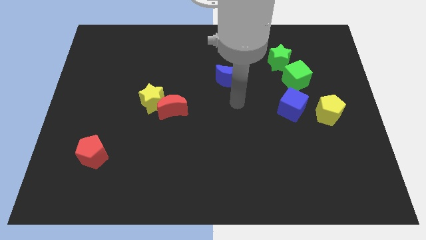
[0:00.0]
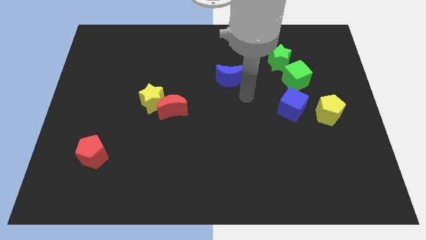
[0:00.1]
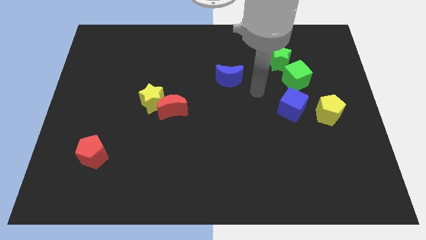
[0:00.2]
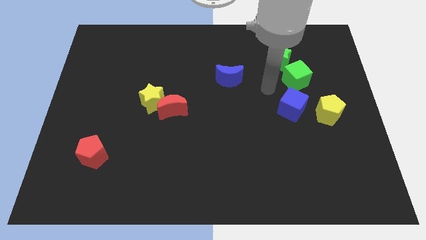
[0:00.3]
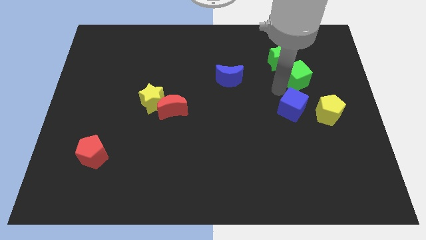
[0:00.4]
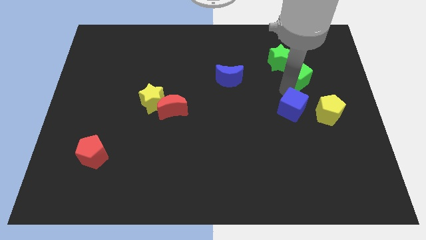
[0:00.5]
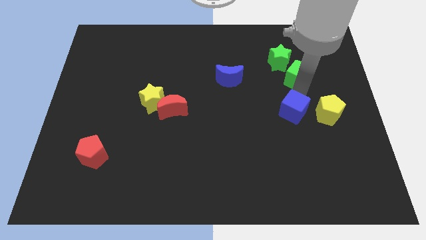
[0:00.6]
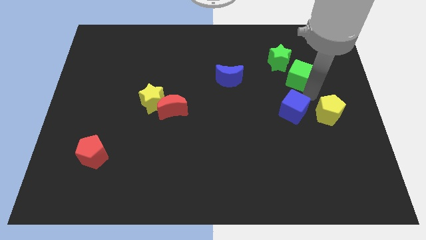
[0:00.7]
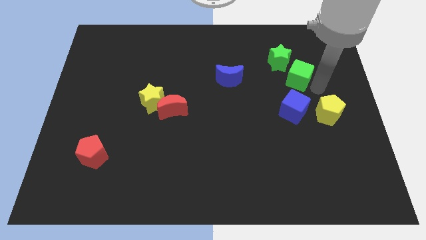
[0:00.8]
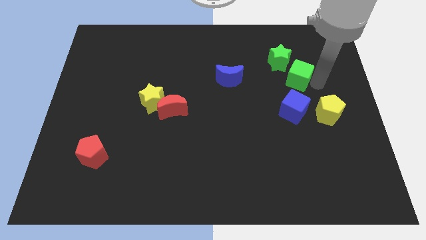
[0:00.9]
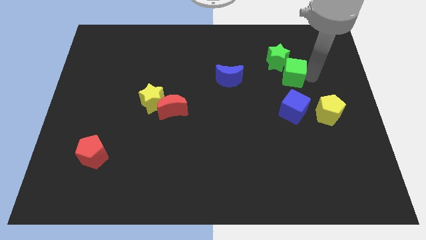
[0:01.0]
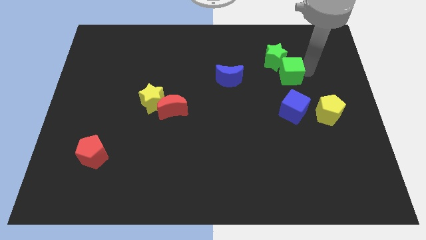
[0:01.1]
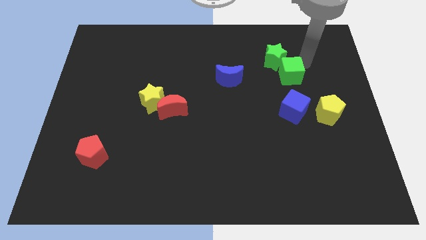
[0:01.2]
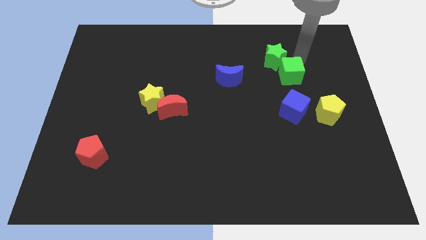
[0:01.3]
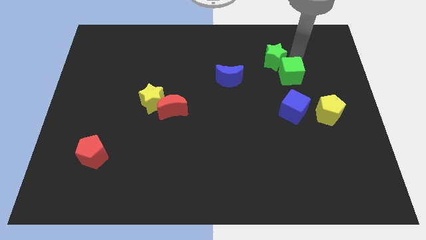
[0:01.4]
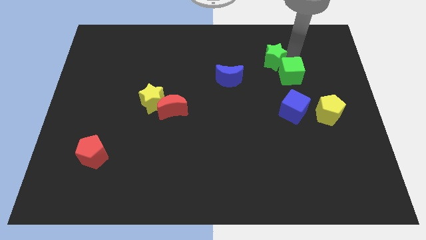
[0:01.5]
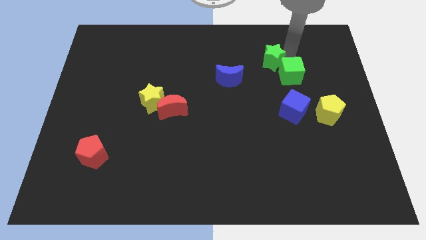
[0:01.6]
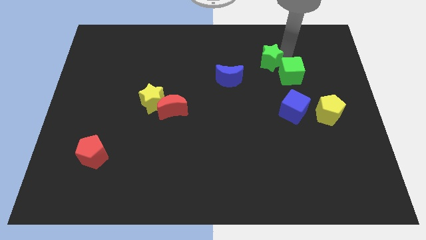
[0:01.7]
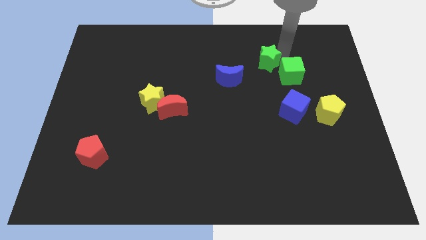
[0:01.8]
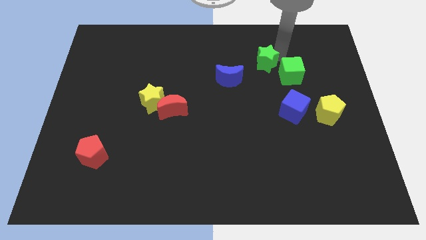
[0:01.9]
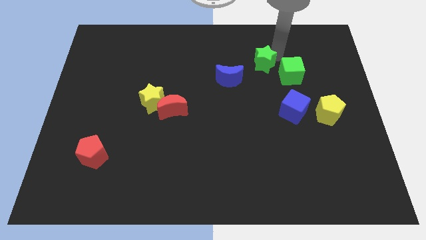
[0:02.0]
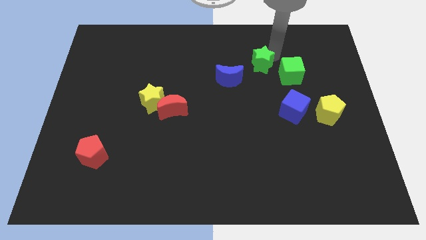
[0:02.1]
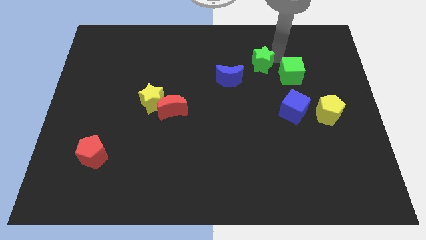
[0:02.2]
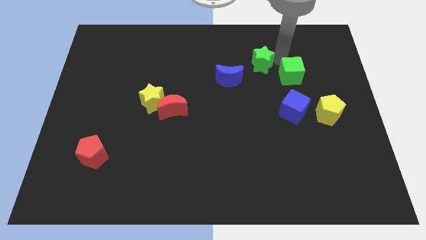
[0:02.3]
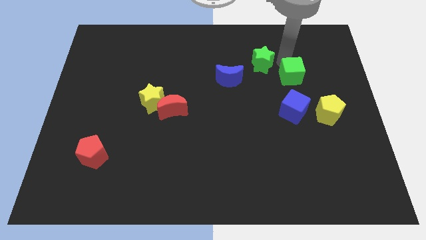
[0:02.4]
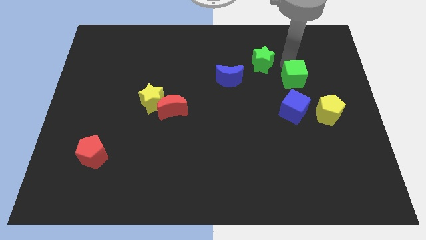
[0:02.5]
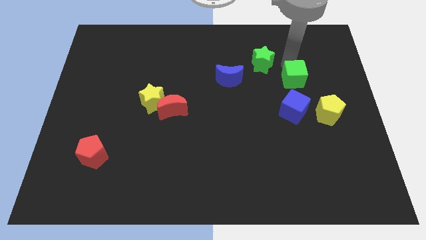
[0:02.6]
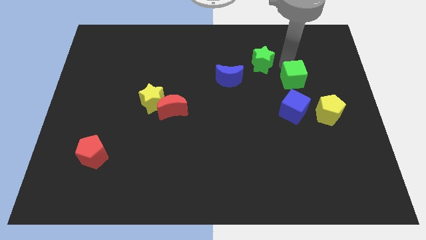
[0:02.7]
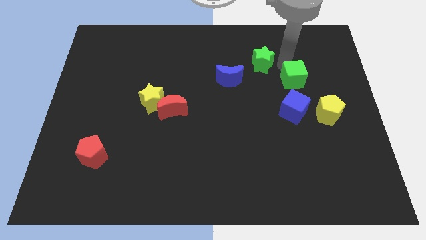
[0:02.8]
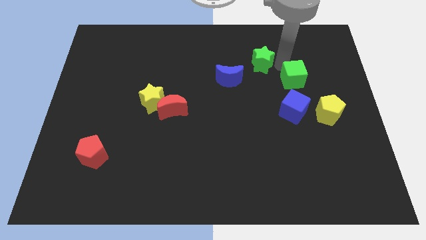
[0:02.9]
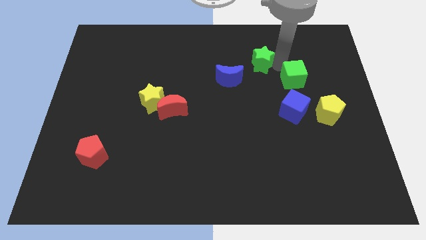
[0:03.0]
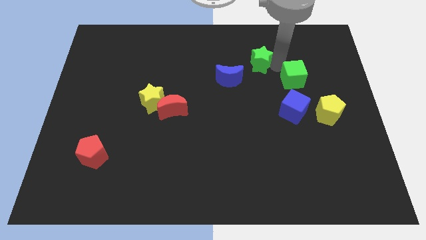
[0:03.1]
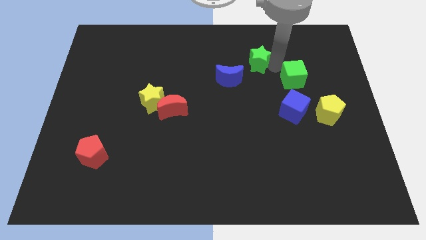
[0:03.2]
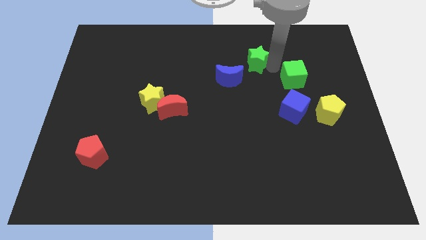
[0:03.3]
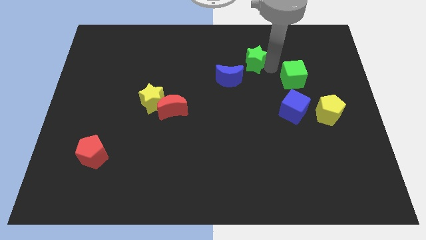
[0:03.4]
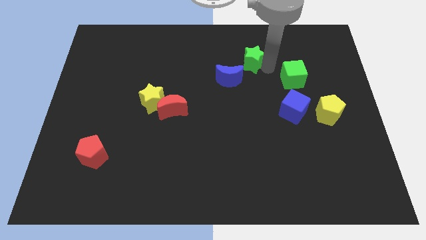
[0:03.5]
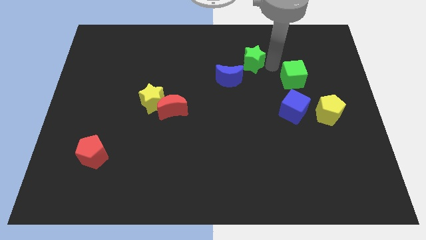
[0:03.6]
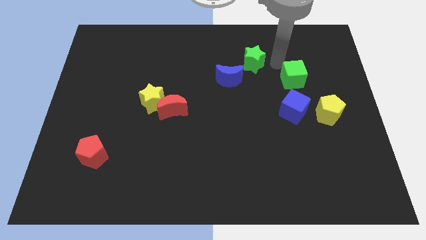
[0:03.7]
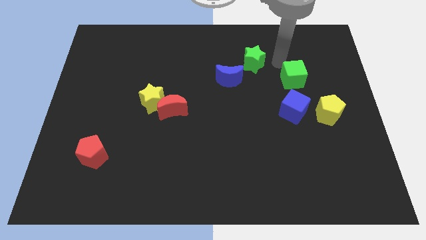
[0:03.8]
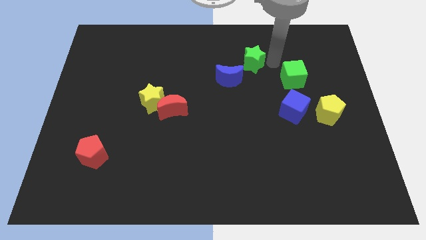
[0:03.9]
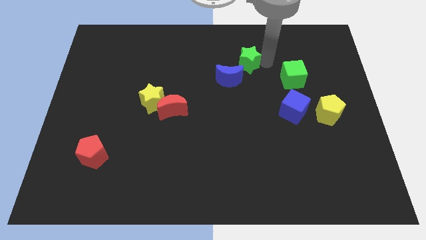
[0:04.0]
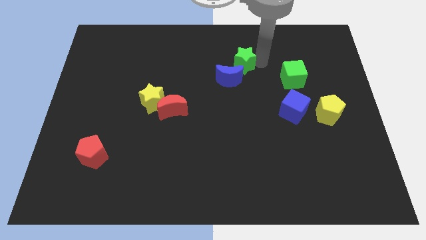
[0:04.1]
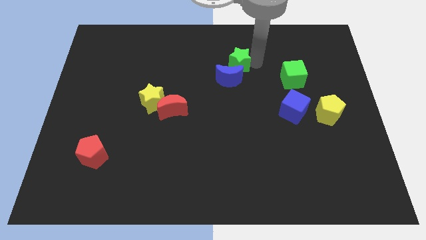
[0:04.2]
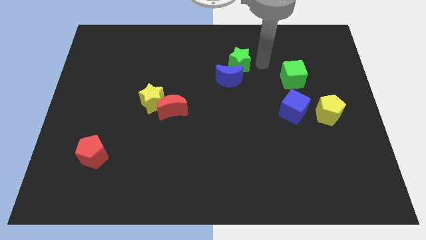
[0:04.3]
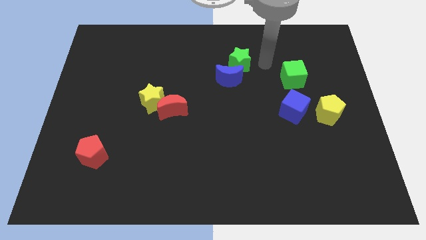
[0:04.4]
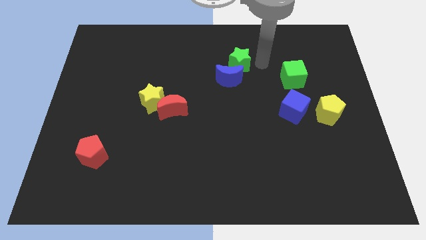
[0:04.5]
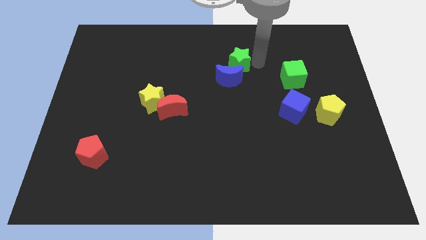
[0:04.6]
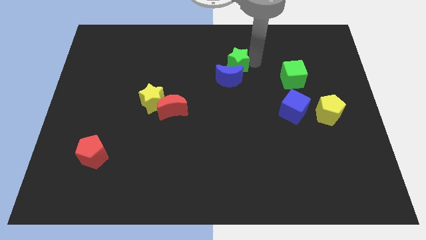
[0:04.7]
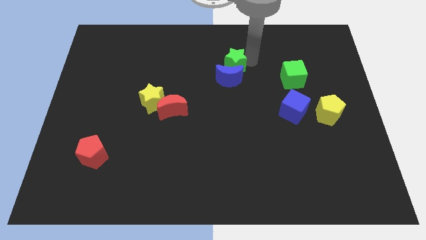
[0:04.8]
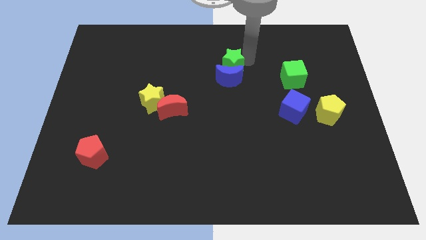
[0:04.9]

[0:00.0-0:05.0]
move the green star to the top left side of the blue moon

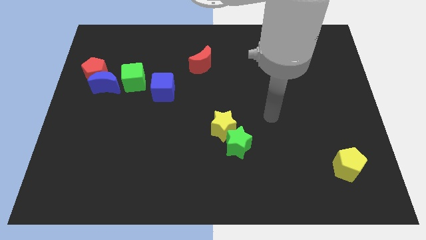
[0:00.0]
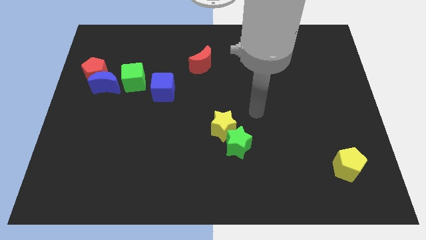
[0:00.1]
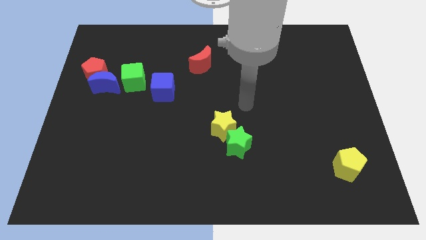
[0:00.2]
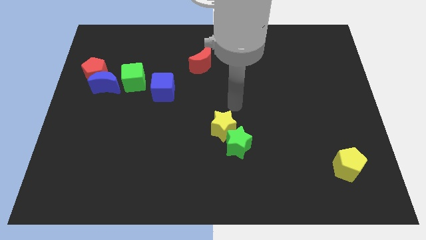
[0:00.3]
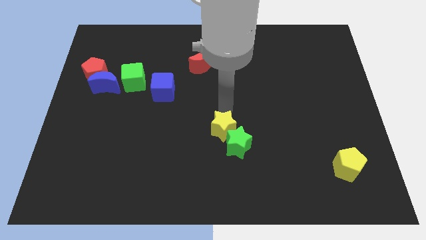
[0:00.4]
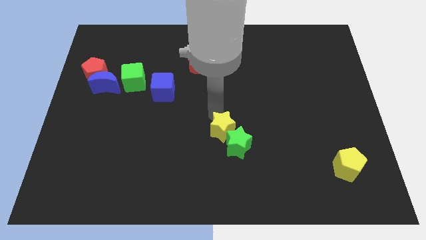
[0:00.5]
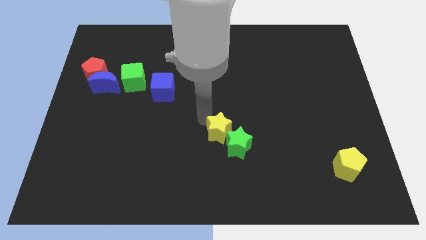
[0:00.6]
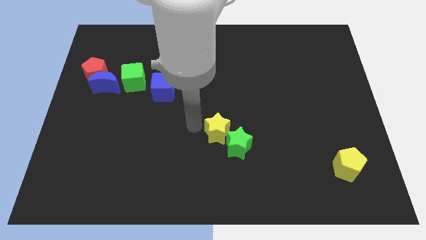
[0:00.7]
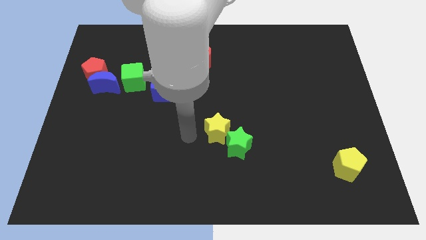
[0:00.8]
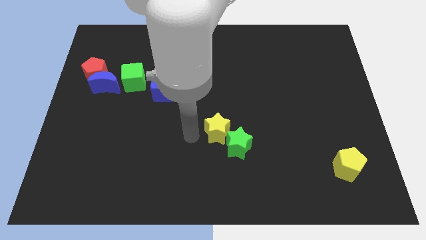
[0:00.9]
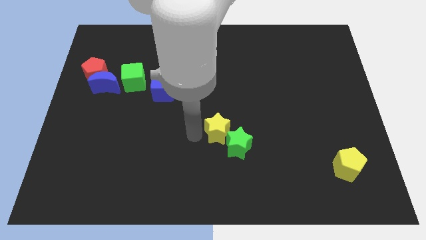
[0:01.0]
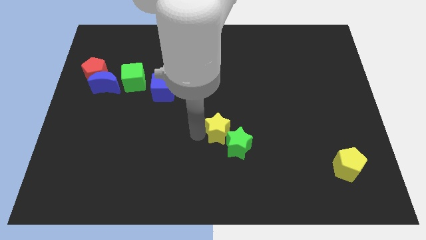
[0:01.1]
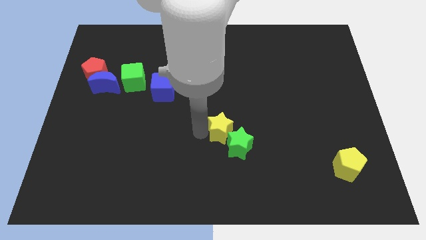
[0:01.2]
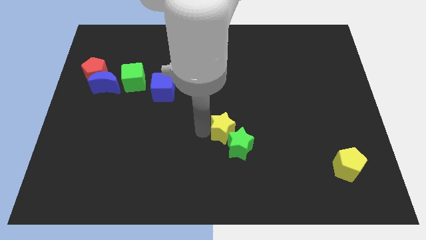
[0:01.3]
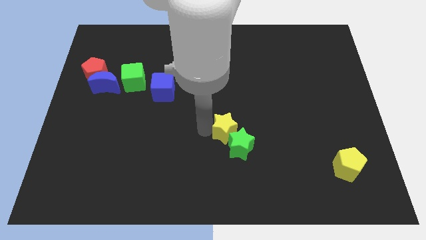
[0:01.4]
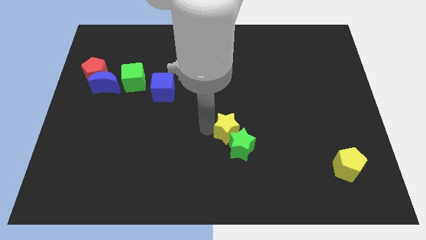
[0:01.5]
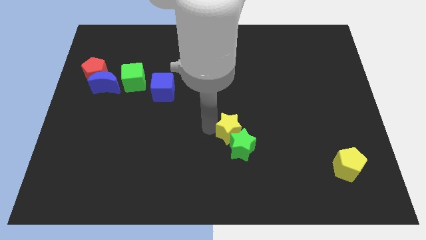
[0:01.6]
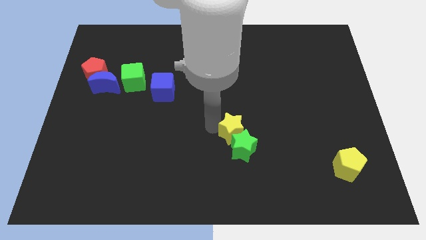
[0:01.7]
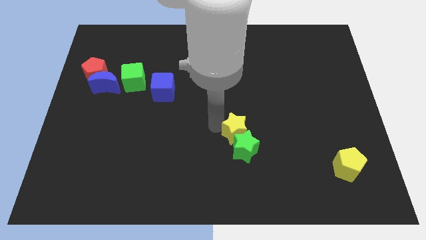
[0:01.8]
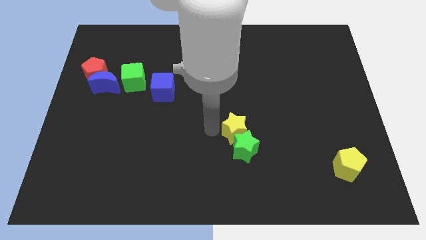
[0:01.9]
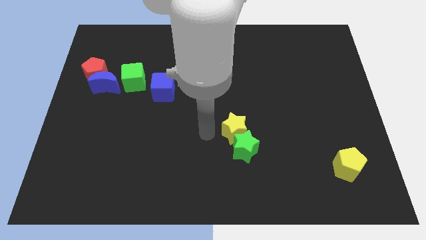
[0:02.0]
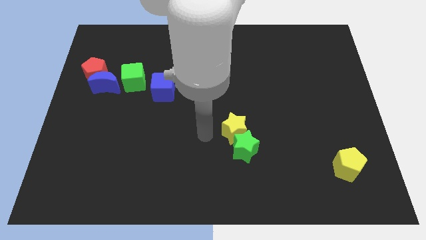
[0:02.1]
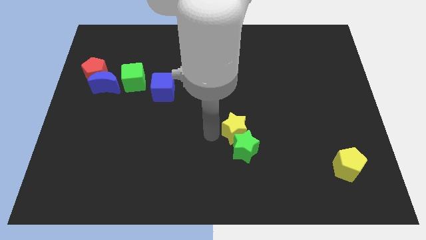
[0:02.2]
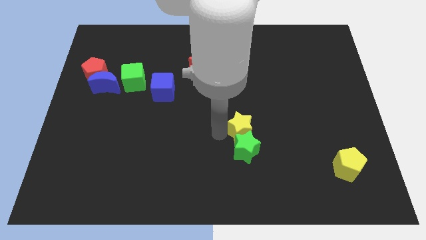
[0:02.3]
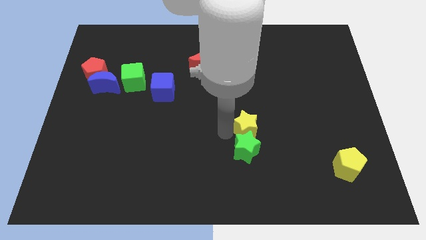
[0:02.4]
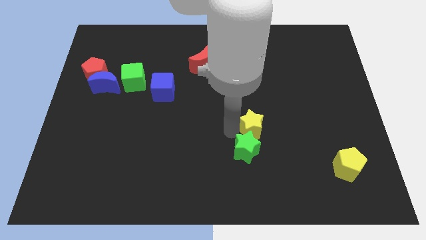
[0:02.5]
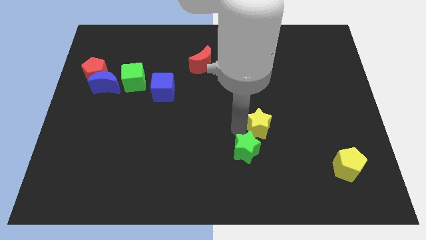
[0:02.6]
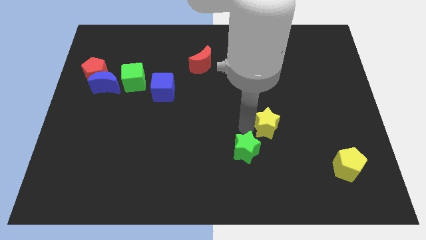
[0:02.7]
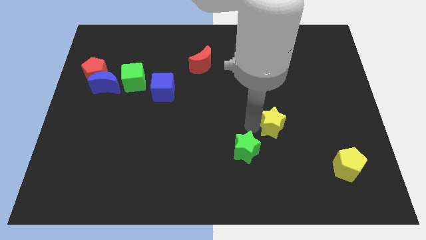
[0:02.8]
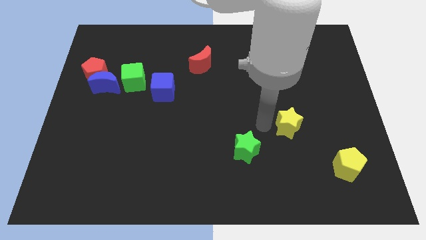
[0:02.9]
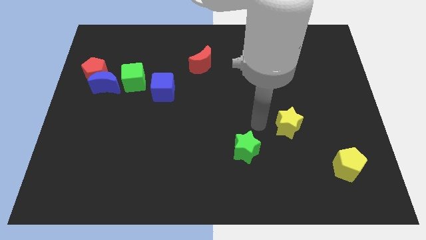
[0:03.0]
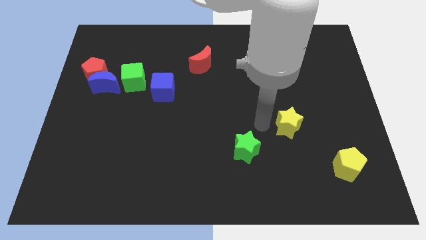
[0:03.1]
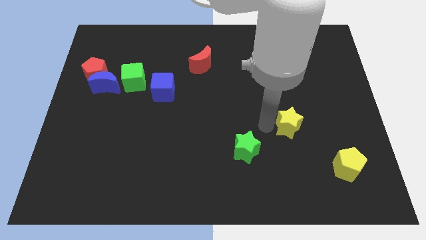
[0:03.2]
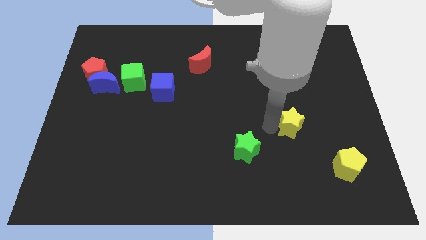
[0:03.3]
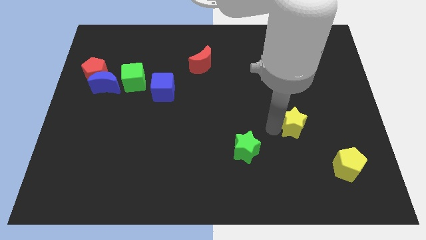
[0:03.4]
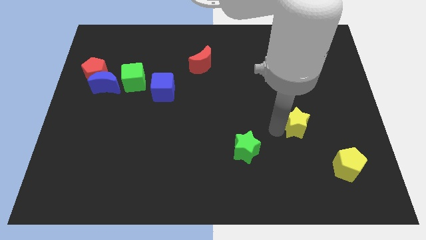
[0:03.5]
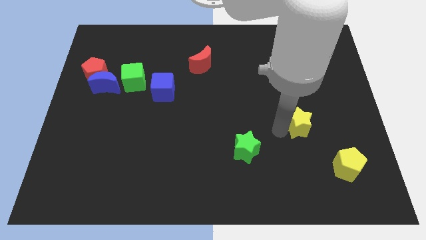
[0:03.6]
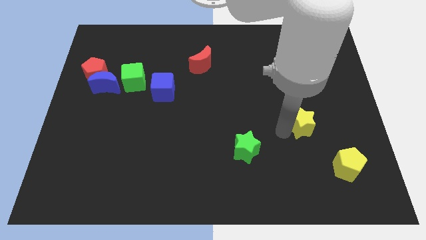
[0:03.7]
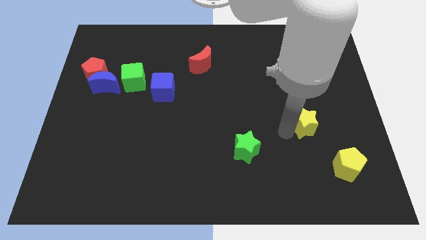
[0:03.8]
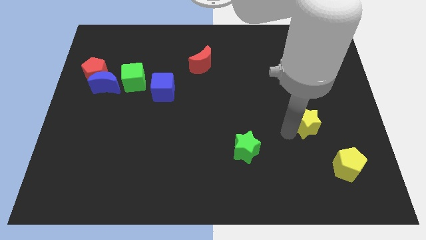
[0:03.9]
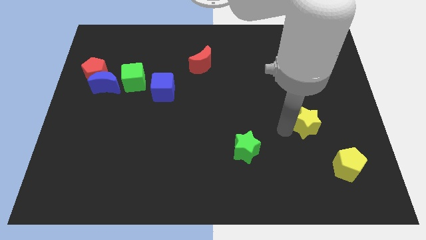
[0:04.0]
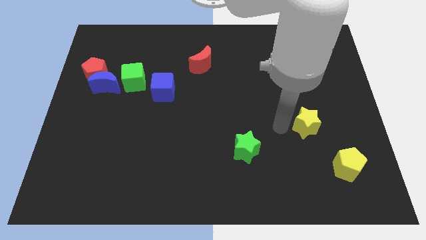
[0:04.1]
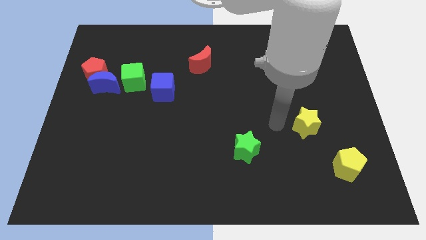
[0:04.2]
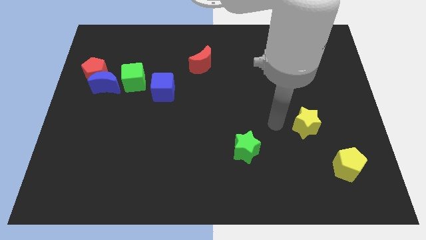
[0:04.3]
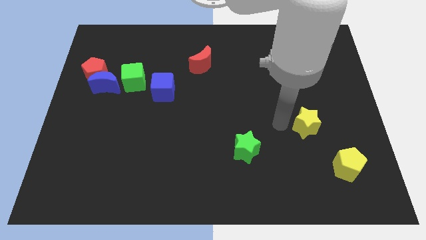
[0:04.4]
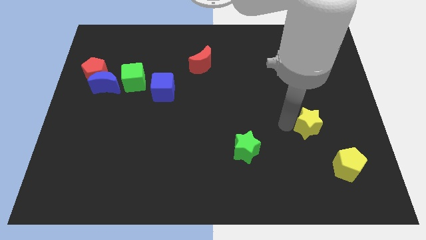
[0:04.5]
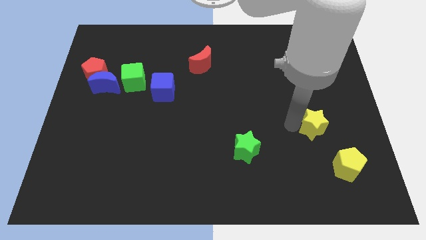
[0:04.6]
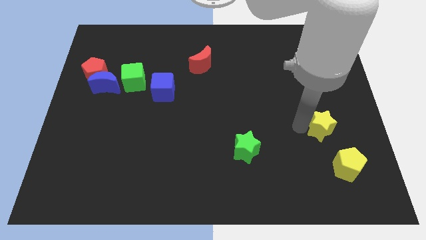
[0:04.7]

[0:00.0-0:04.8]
push the yellow star to the top side of the yellow pentagon
